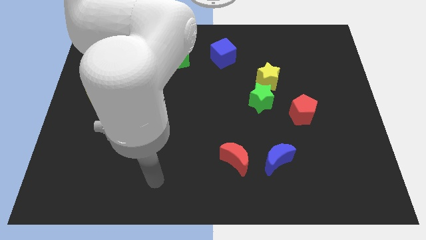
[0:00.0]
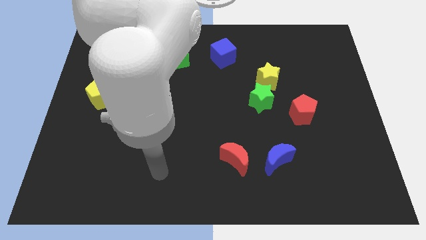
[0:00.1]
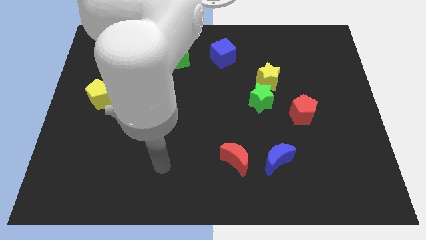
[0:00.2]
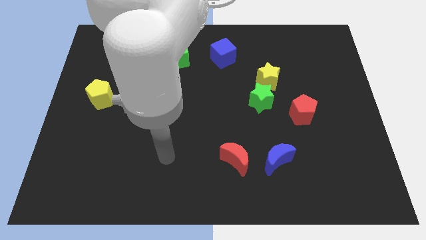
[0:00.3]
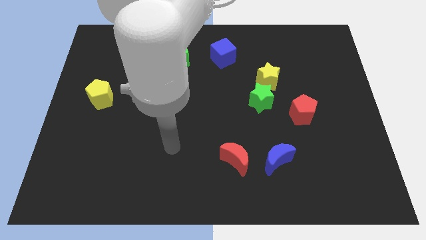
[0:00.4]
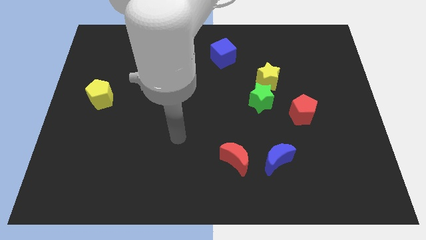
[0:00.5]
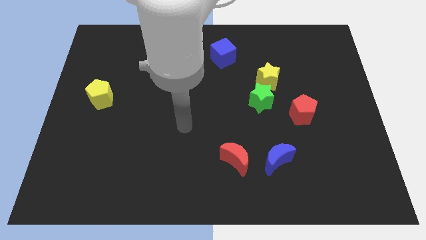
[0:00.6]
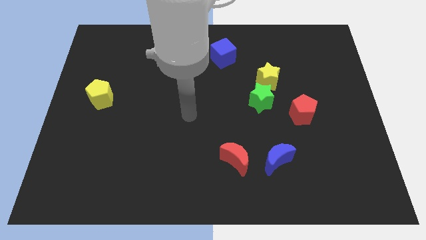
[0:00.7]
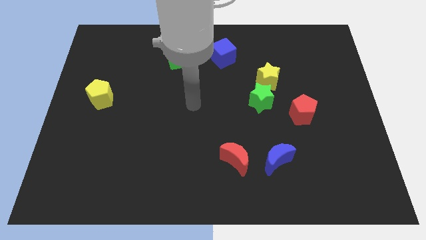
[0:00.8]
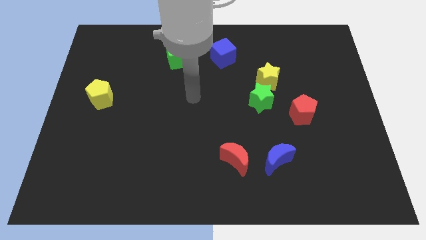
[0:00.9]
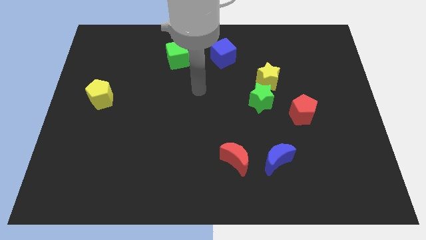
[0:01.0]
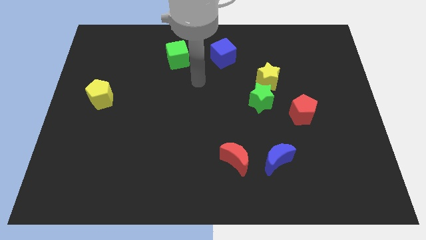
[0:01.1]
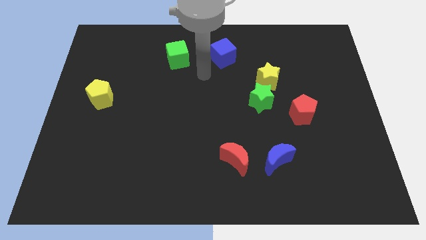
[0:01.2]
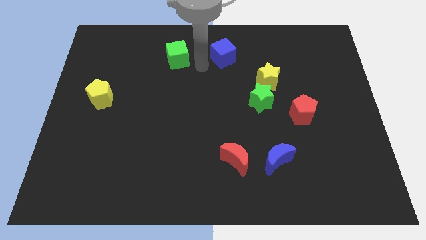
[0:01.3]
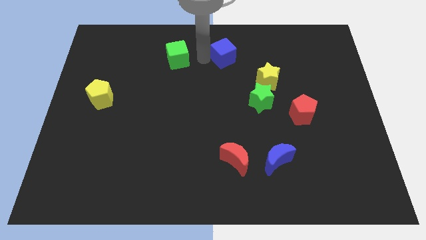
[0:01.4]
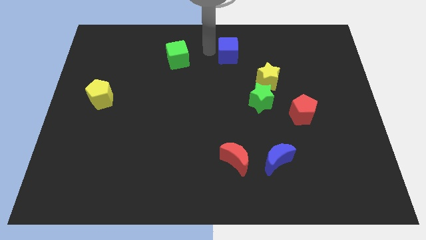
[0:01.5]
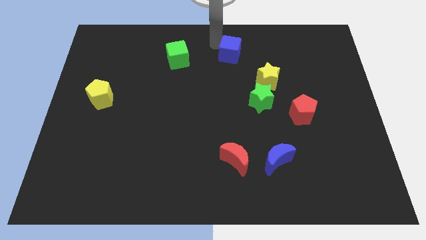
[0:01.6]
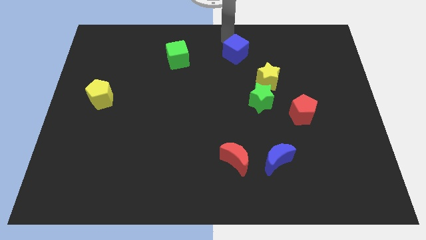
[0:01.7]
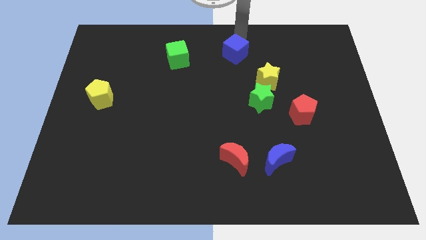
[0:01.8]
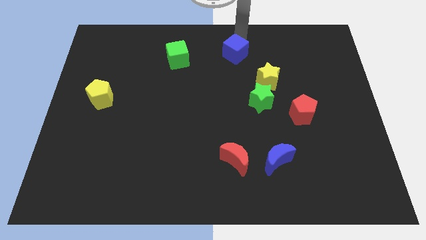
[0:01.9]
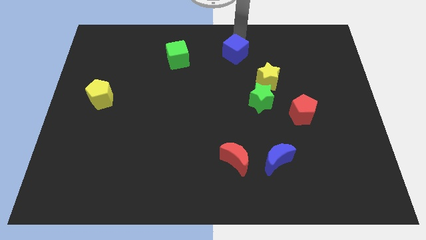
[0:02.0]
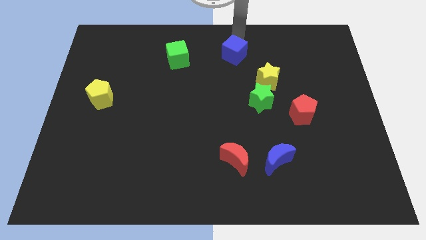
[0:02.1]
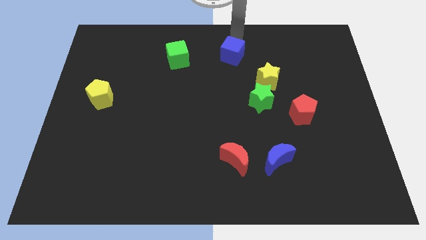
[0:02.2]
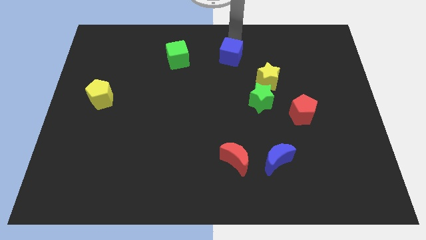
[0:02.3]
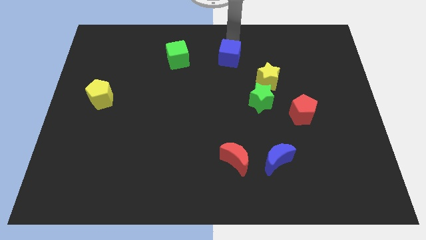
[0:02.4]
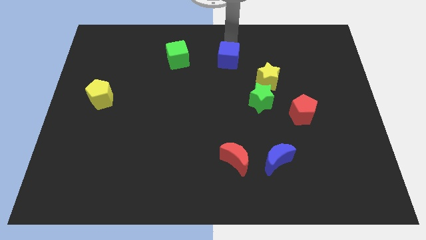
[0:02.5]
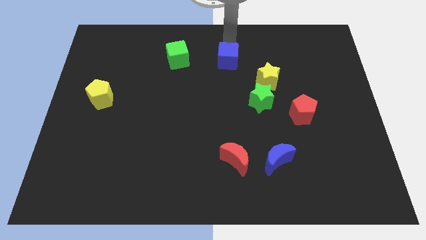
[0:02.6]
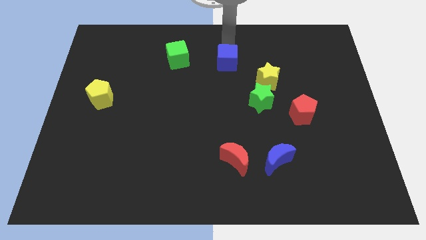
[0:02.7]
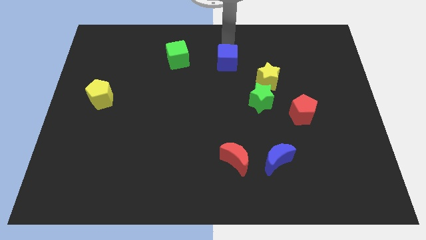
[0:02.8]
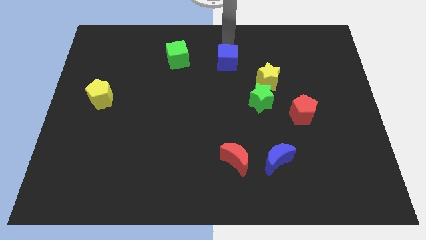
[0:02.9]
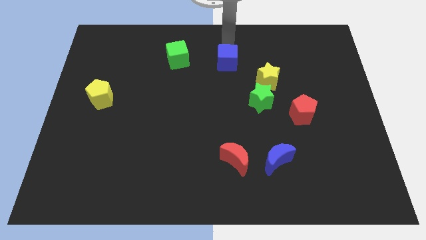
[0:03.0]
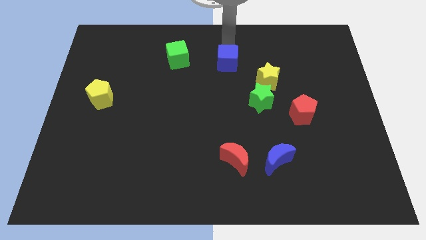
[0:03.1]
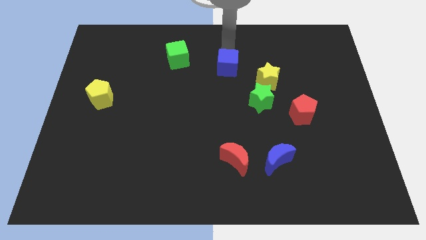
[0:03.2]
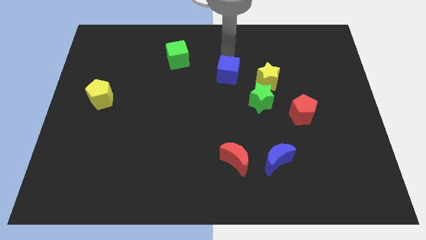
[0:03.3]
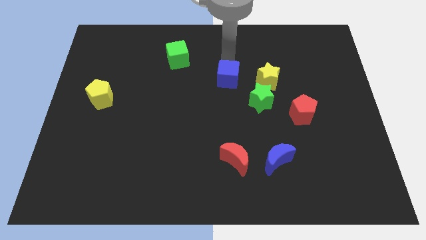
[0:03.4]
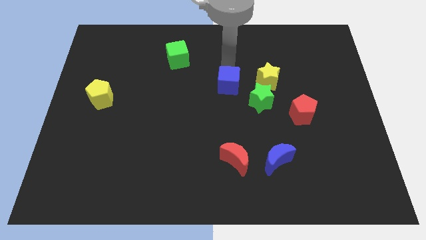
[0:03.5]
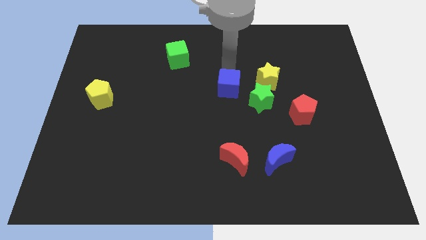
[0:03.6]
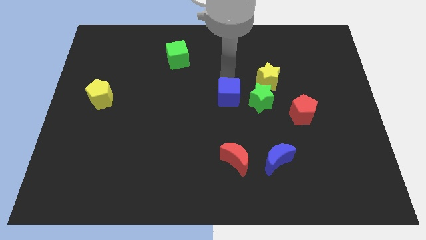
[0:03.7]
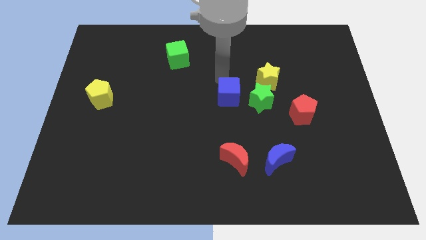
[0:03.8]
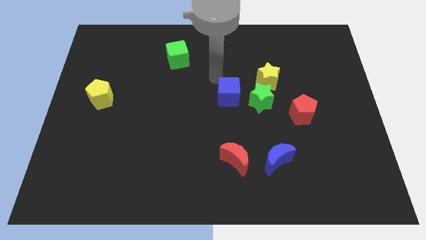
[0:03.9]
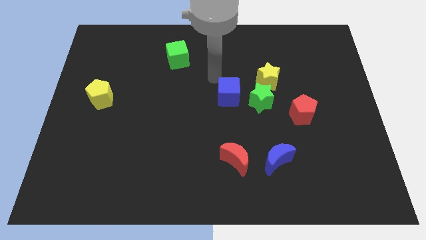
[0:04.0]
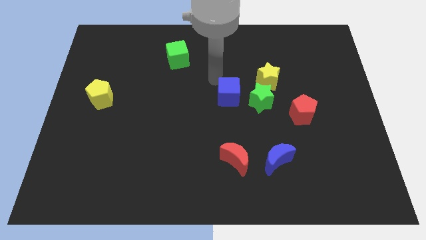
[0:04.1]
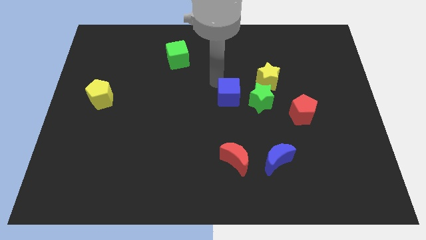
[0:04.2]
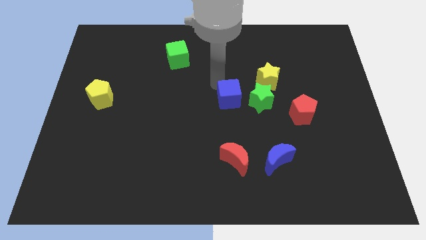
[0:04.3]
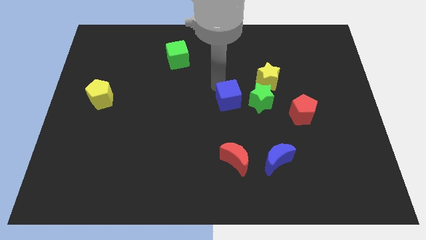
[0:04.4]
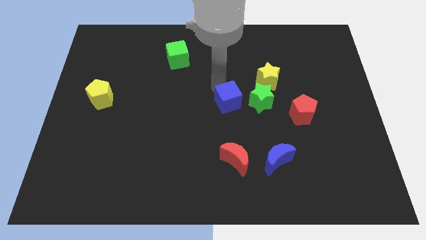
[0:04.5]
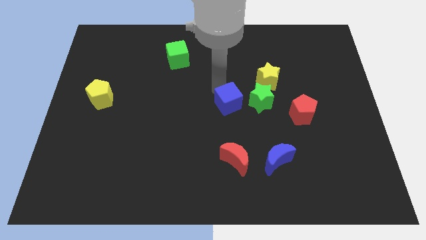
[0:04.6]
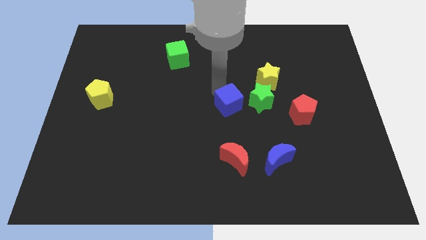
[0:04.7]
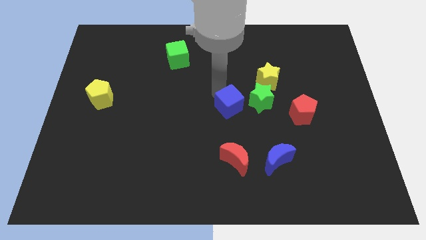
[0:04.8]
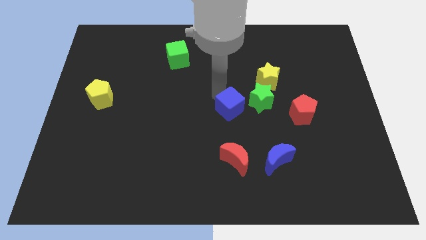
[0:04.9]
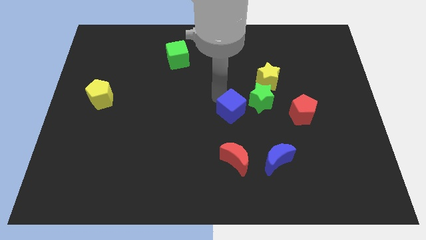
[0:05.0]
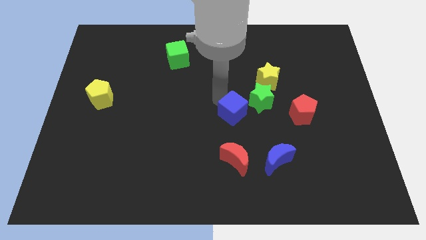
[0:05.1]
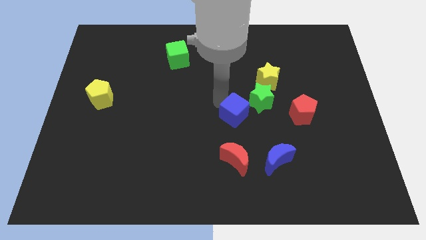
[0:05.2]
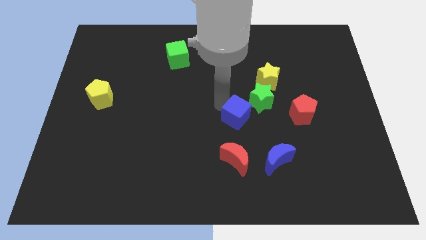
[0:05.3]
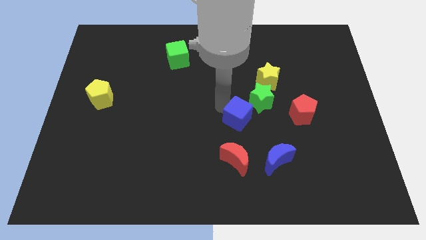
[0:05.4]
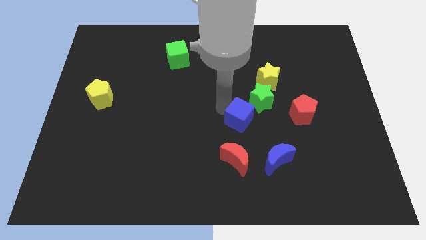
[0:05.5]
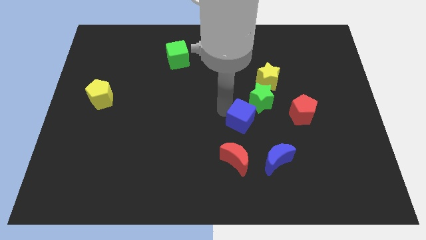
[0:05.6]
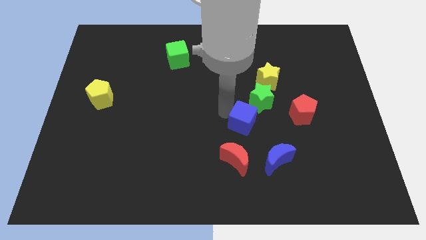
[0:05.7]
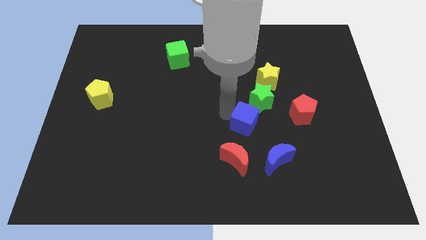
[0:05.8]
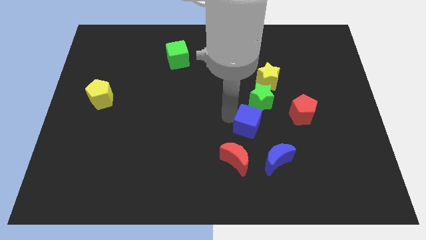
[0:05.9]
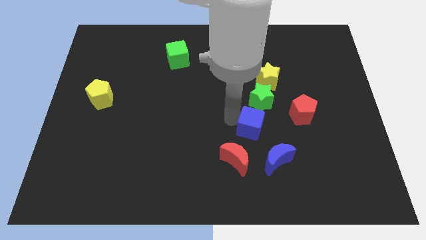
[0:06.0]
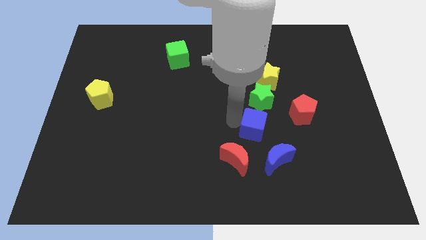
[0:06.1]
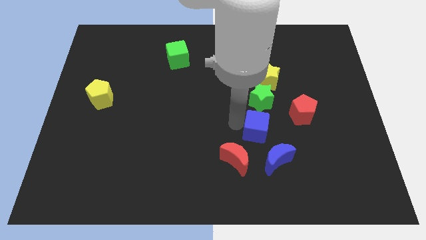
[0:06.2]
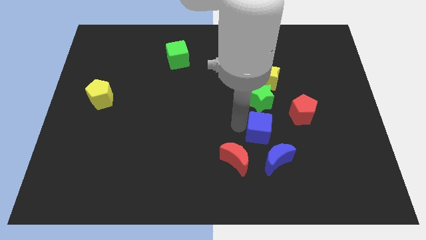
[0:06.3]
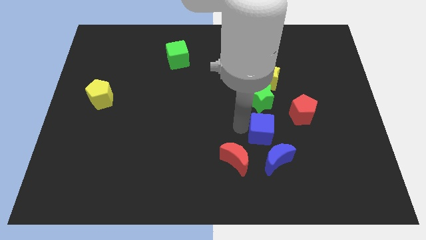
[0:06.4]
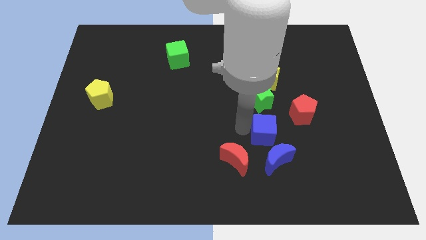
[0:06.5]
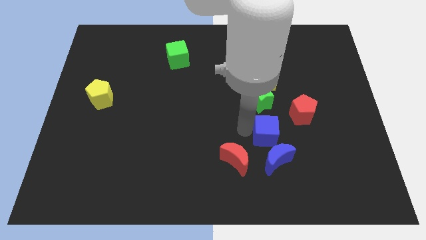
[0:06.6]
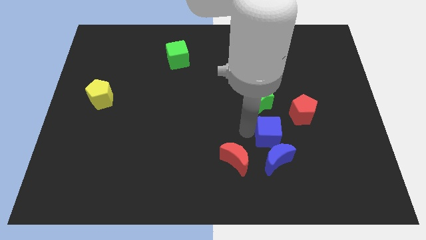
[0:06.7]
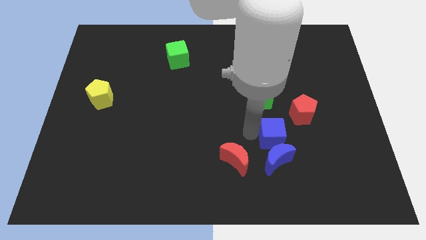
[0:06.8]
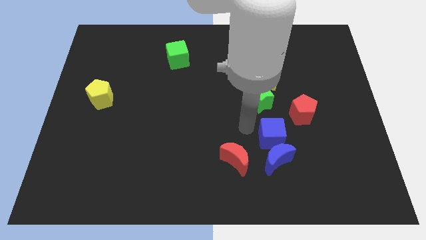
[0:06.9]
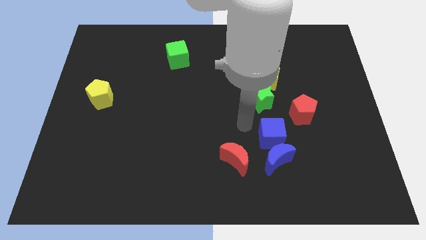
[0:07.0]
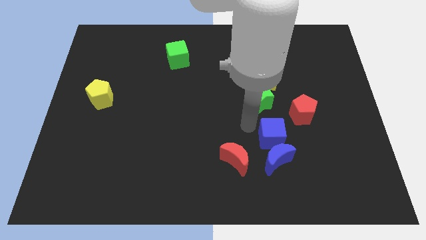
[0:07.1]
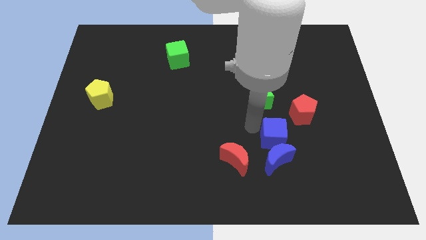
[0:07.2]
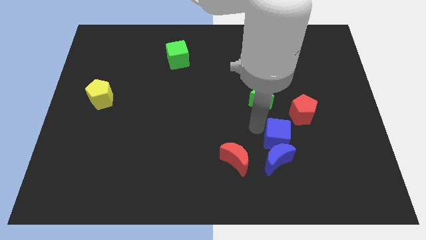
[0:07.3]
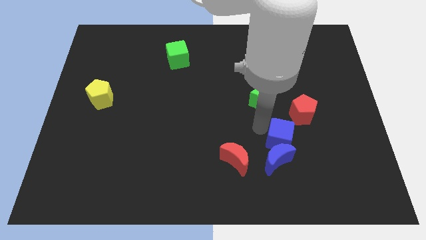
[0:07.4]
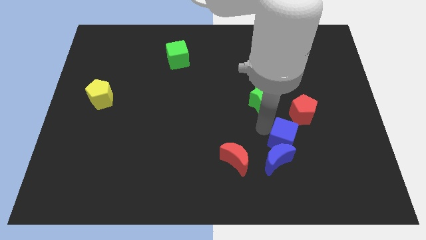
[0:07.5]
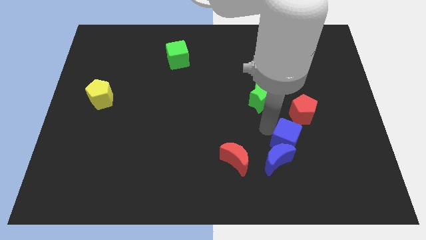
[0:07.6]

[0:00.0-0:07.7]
put the blue cube below the red pentagon
